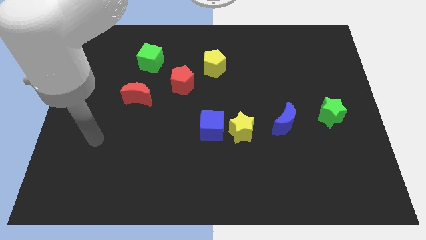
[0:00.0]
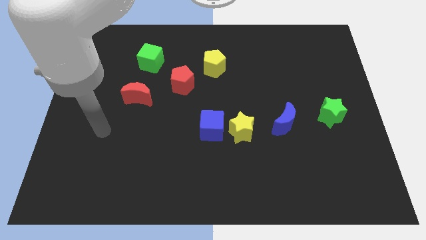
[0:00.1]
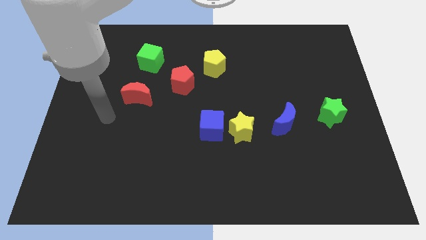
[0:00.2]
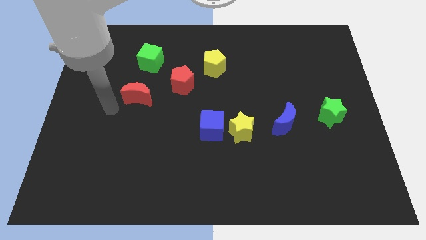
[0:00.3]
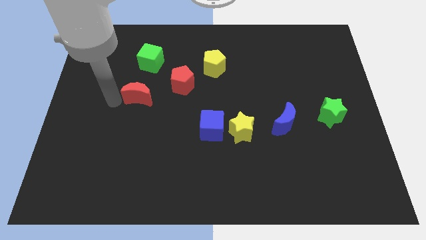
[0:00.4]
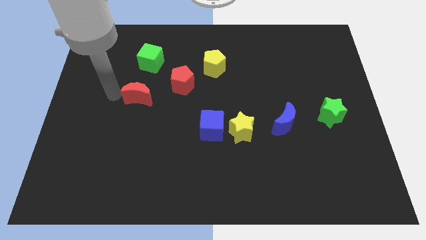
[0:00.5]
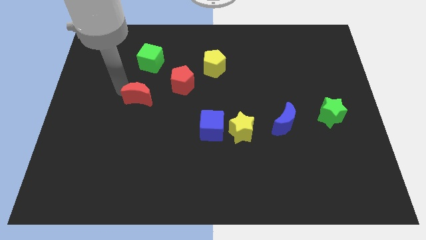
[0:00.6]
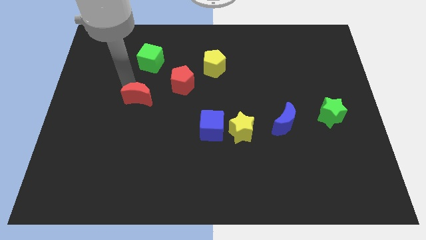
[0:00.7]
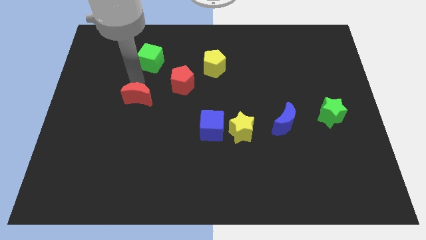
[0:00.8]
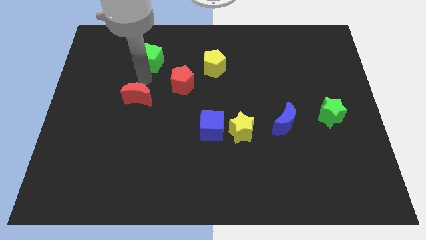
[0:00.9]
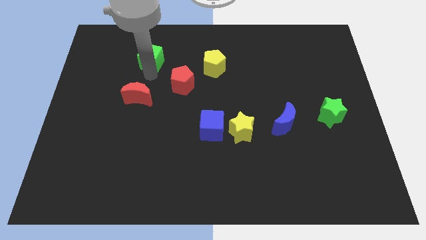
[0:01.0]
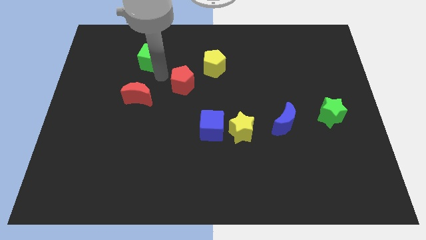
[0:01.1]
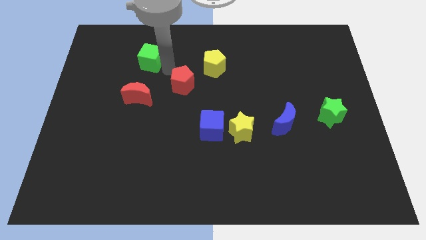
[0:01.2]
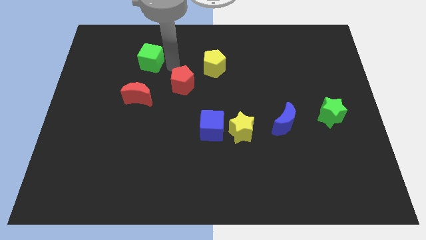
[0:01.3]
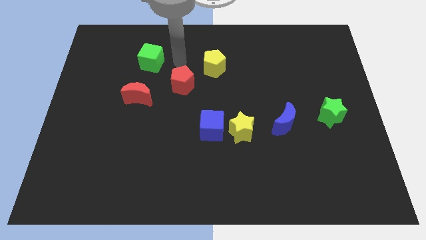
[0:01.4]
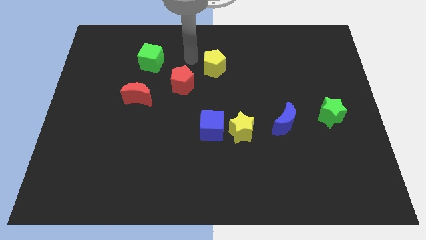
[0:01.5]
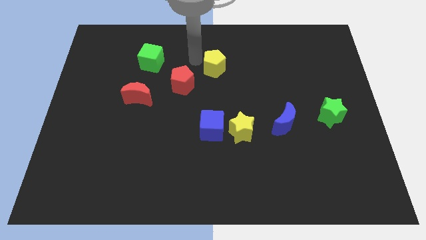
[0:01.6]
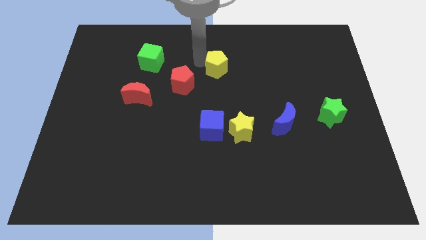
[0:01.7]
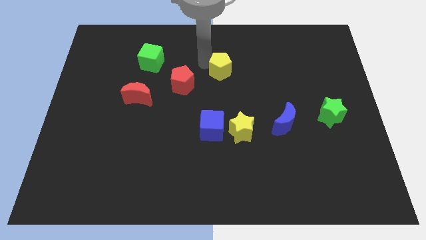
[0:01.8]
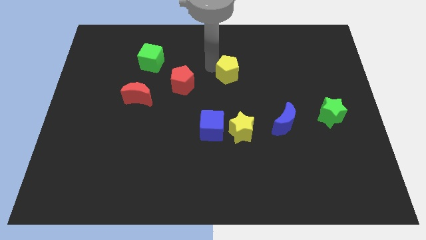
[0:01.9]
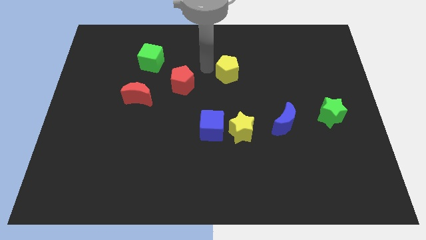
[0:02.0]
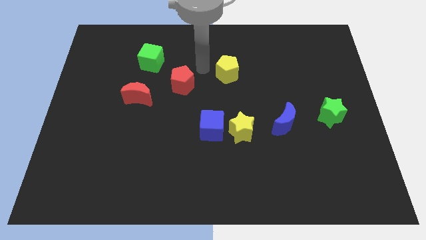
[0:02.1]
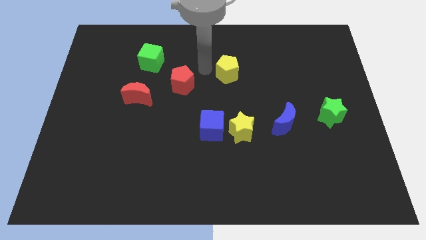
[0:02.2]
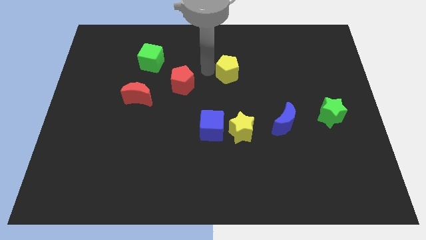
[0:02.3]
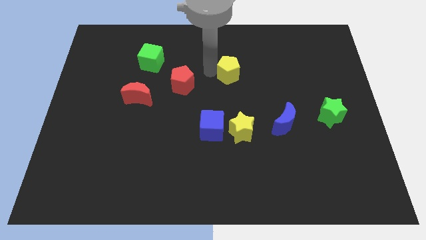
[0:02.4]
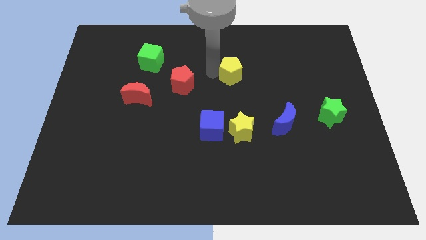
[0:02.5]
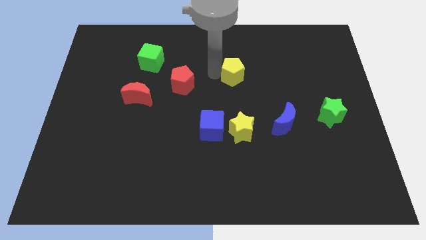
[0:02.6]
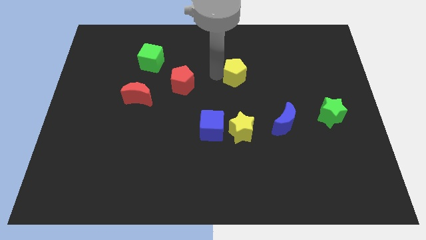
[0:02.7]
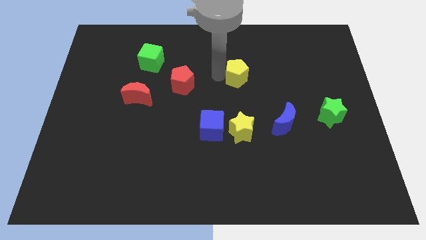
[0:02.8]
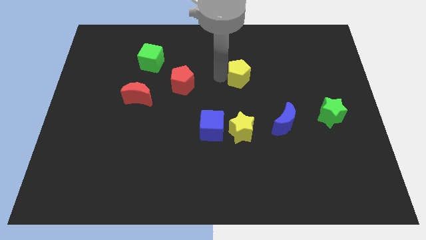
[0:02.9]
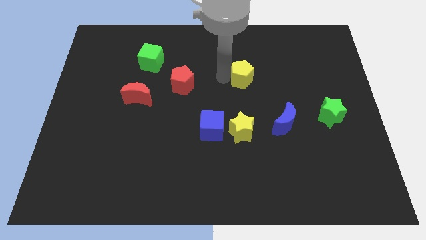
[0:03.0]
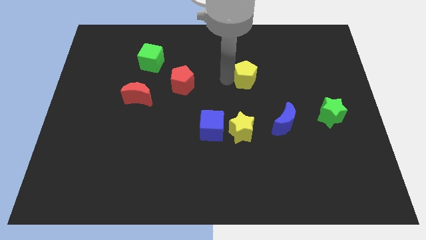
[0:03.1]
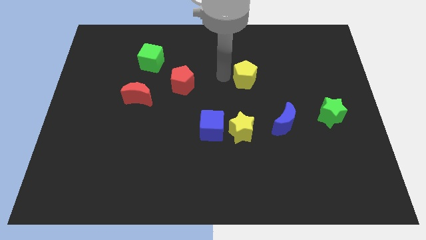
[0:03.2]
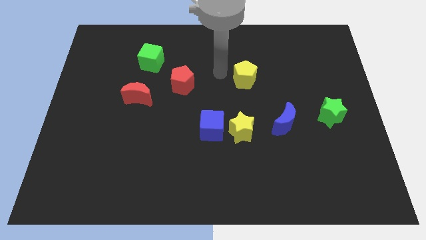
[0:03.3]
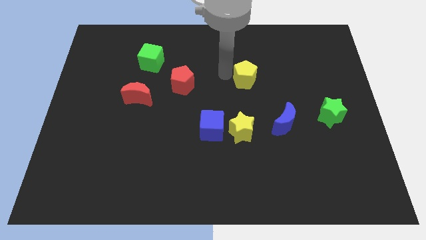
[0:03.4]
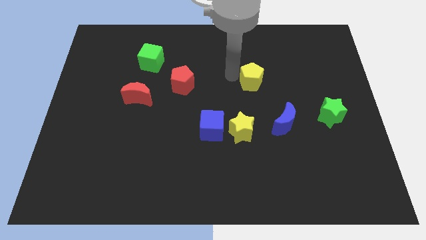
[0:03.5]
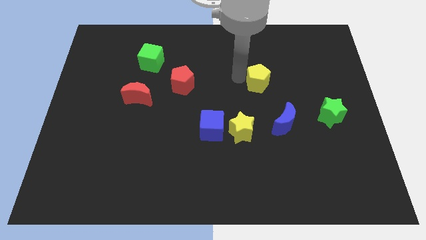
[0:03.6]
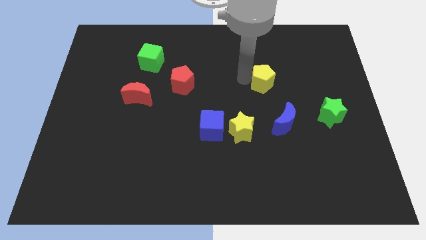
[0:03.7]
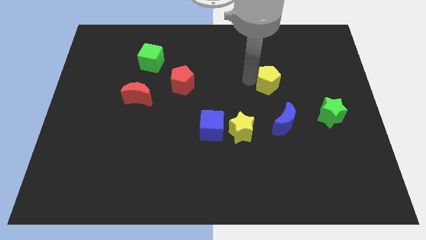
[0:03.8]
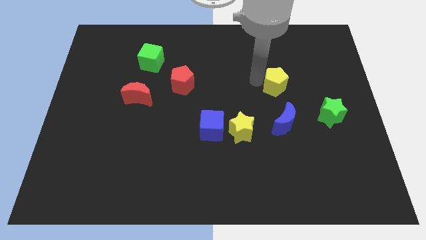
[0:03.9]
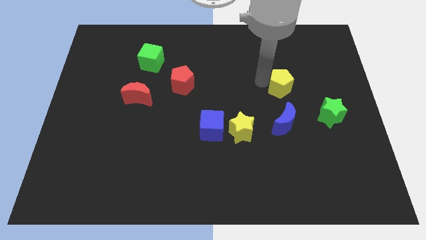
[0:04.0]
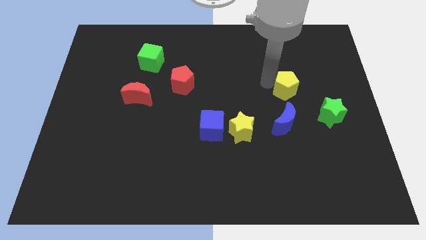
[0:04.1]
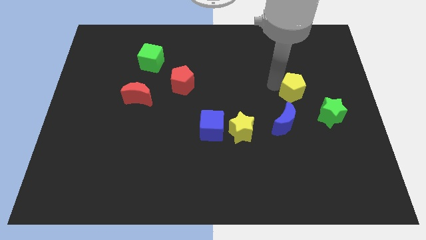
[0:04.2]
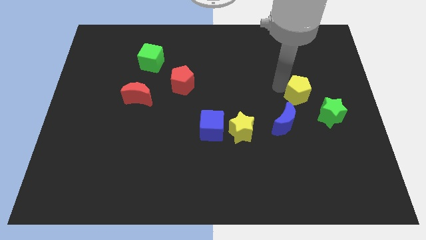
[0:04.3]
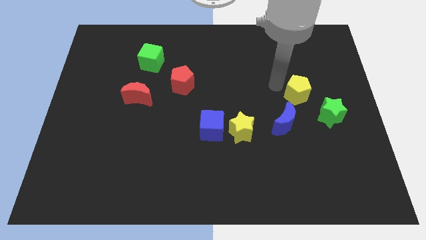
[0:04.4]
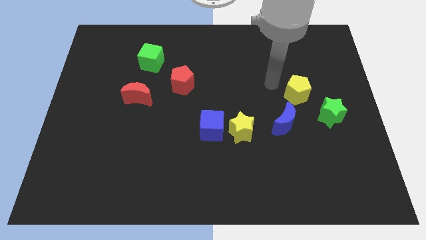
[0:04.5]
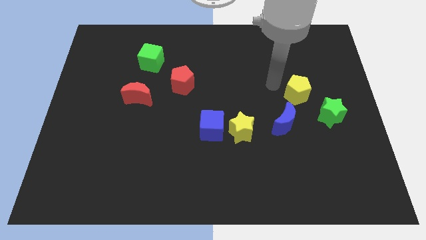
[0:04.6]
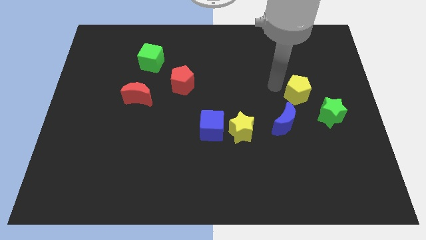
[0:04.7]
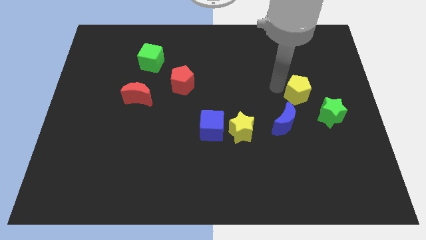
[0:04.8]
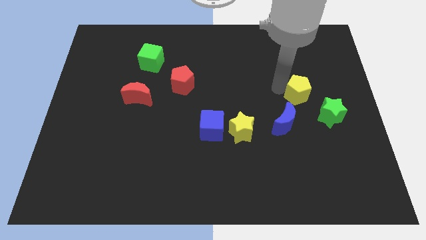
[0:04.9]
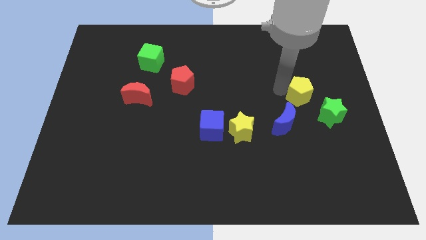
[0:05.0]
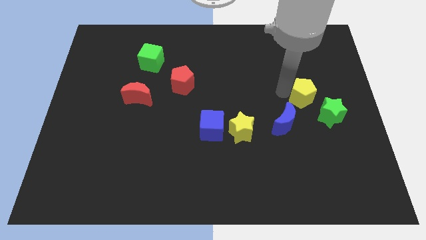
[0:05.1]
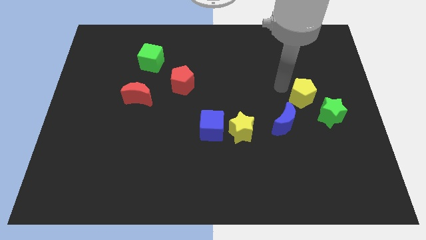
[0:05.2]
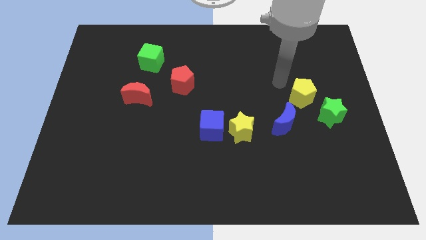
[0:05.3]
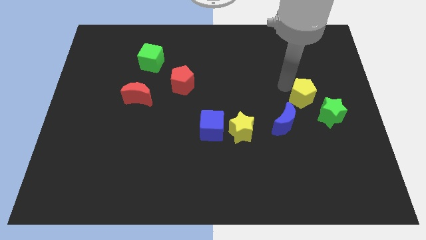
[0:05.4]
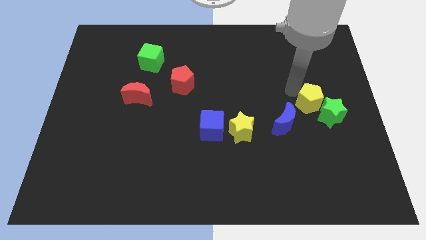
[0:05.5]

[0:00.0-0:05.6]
put the yellow pentagon to the green star

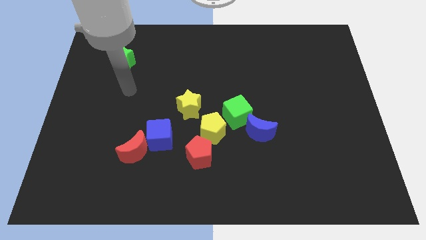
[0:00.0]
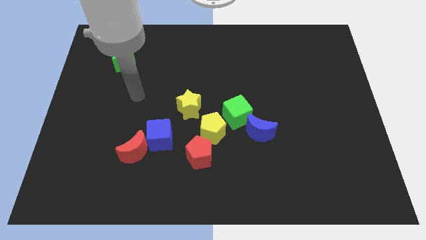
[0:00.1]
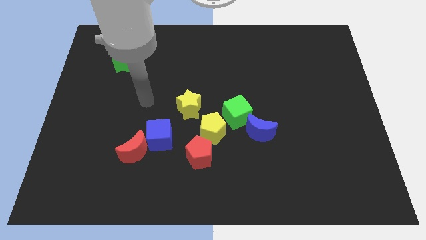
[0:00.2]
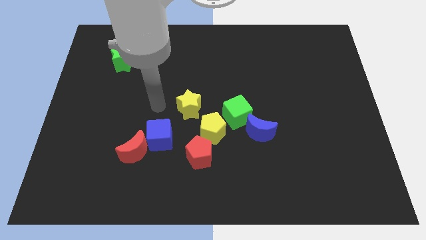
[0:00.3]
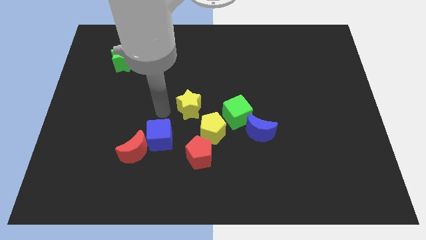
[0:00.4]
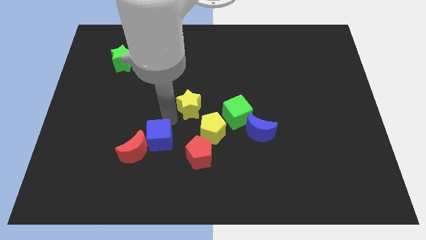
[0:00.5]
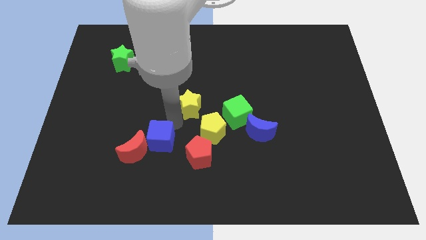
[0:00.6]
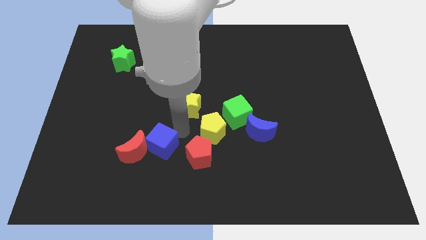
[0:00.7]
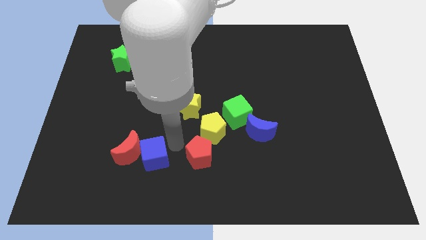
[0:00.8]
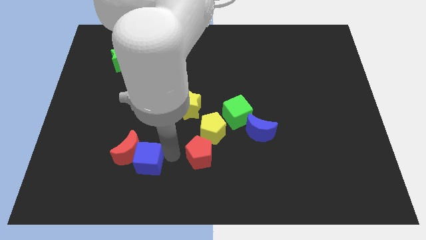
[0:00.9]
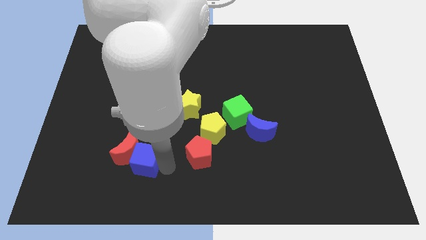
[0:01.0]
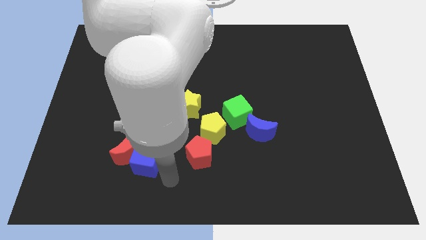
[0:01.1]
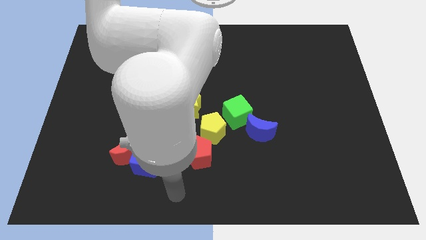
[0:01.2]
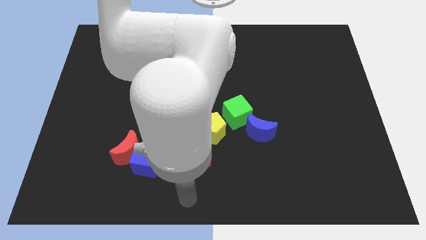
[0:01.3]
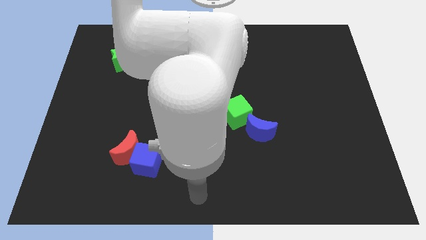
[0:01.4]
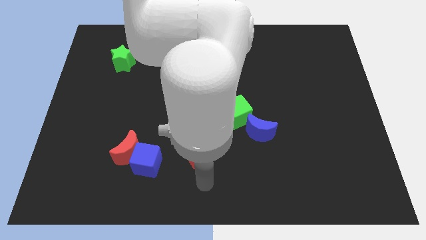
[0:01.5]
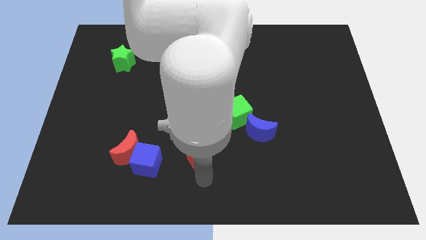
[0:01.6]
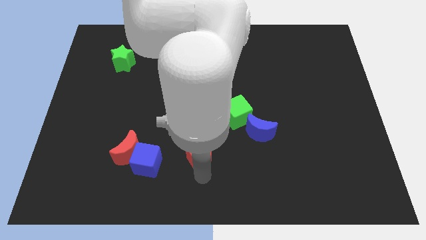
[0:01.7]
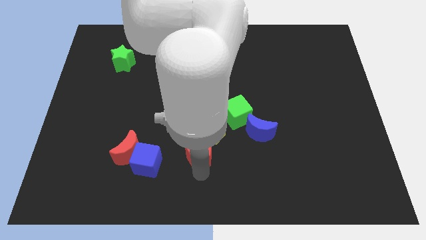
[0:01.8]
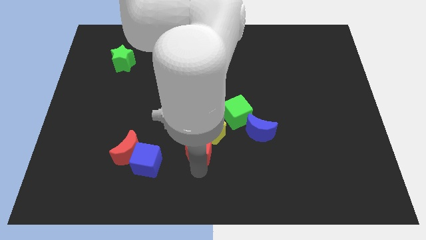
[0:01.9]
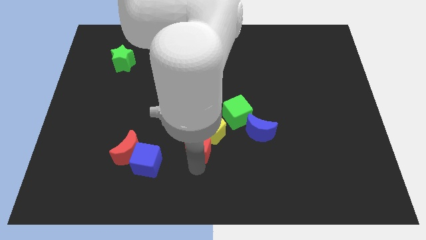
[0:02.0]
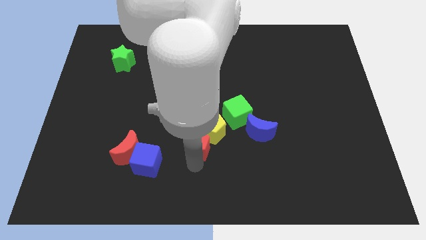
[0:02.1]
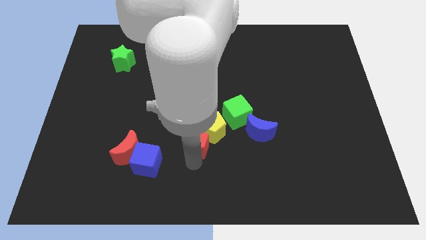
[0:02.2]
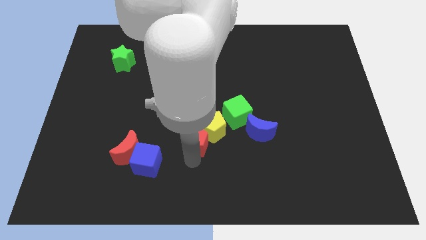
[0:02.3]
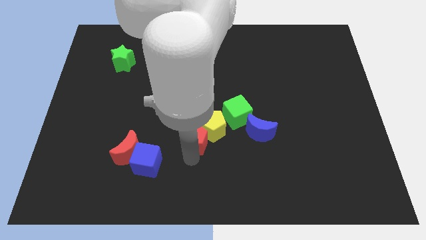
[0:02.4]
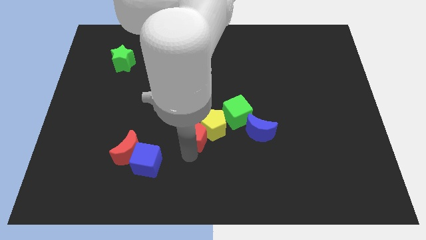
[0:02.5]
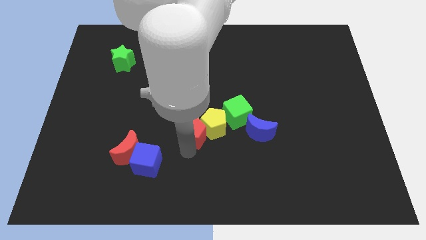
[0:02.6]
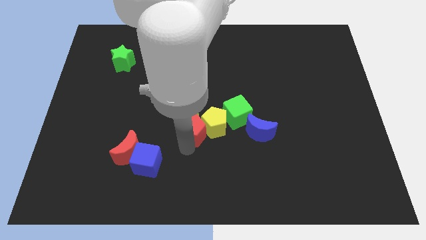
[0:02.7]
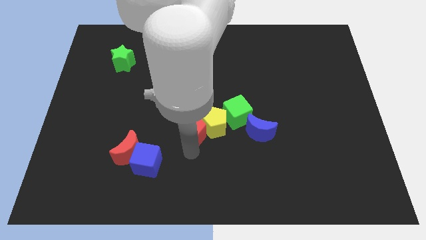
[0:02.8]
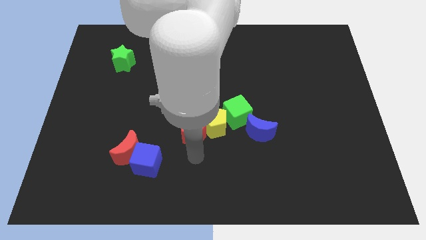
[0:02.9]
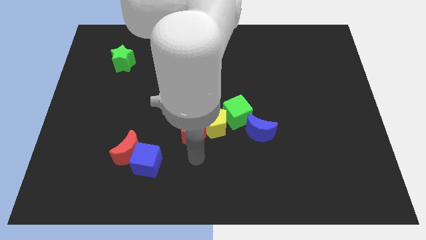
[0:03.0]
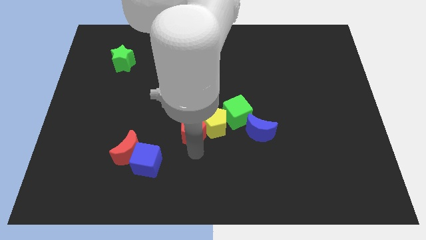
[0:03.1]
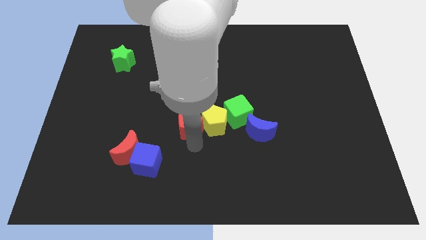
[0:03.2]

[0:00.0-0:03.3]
put the red pentagon to the yellow star
